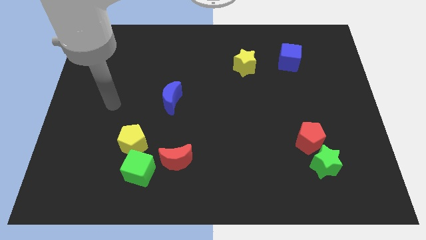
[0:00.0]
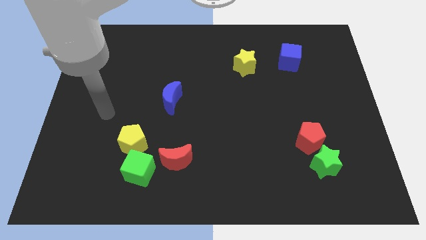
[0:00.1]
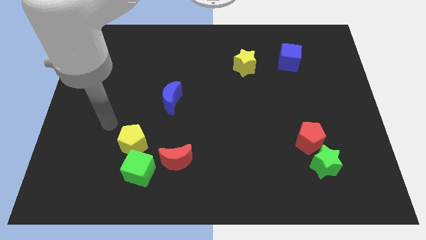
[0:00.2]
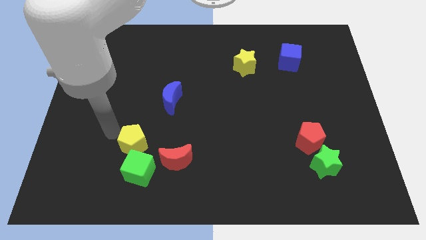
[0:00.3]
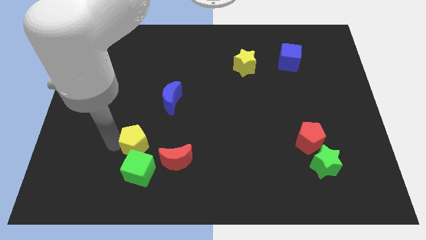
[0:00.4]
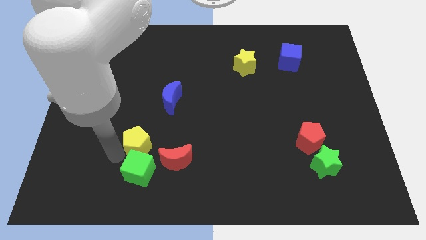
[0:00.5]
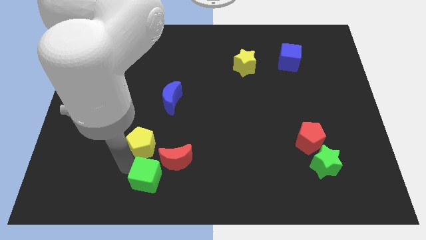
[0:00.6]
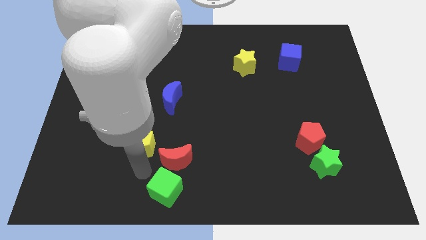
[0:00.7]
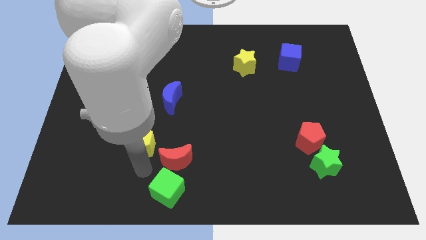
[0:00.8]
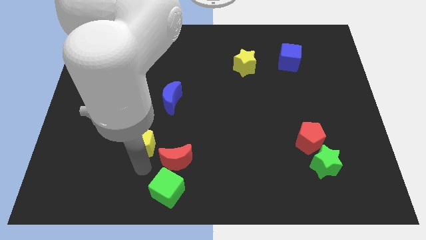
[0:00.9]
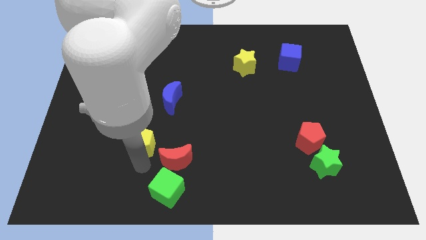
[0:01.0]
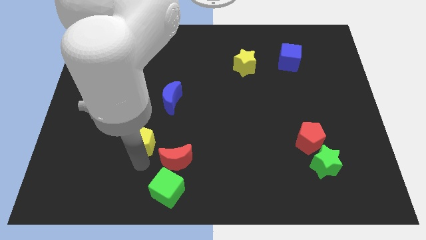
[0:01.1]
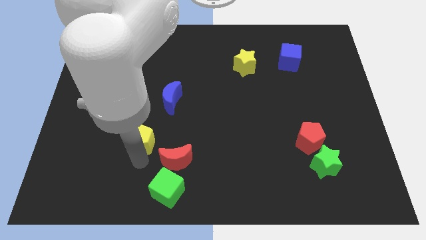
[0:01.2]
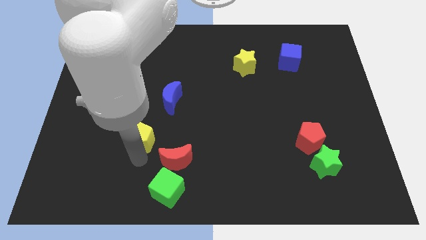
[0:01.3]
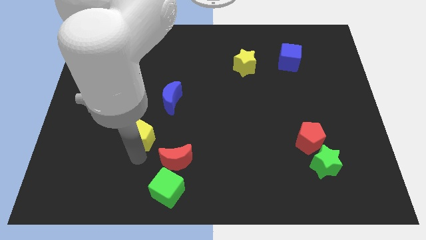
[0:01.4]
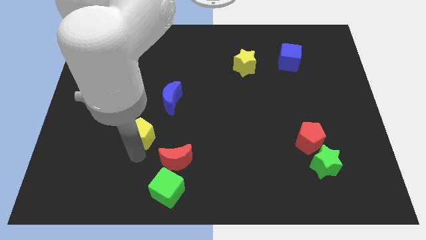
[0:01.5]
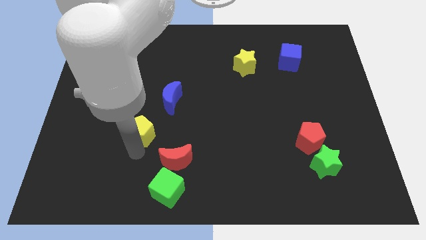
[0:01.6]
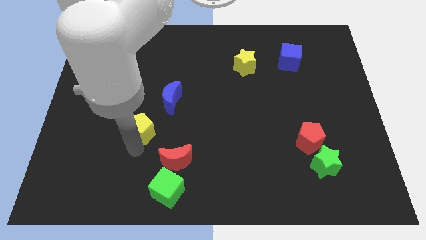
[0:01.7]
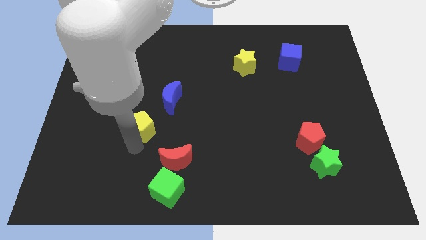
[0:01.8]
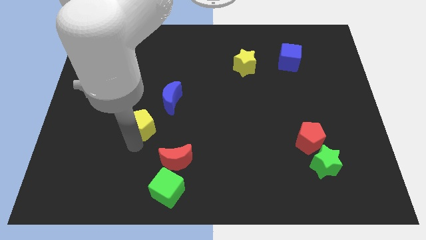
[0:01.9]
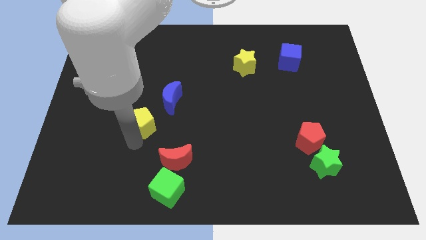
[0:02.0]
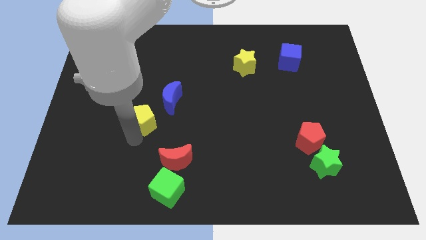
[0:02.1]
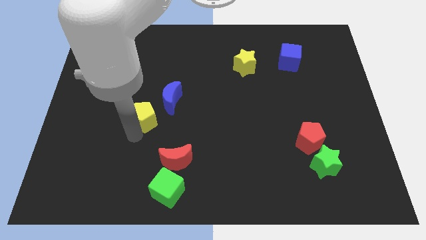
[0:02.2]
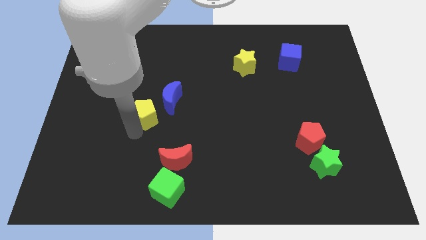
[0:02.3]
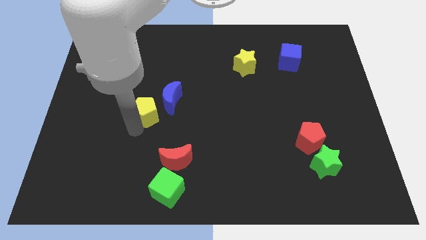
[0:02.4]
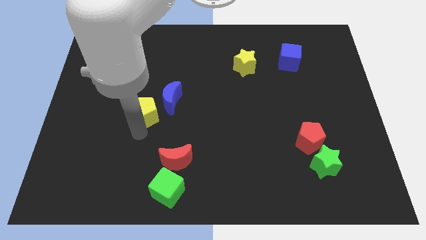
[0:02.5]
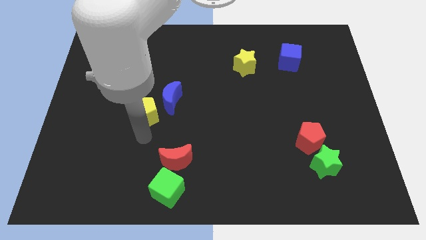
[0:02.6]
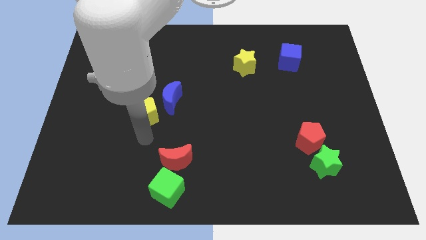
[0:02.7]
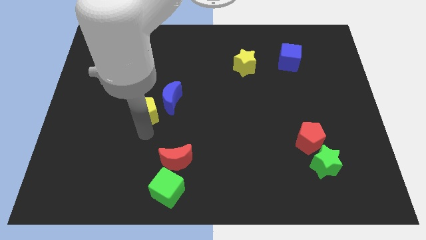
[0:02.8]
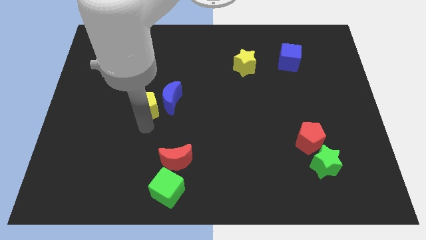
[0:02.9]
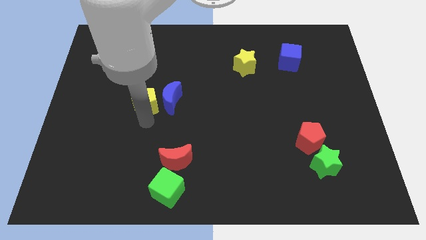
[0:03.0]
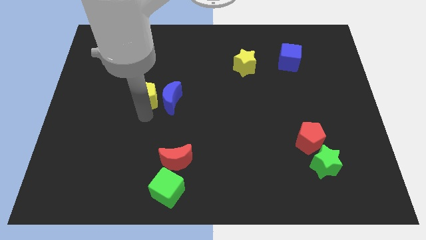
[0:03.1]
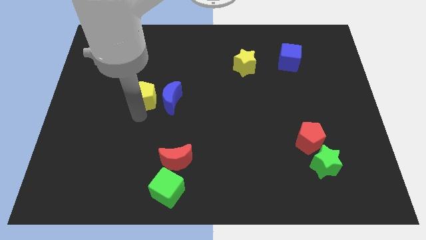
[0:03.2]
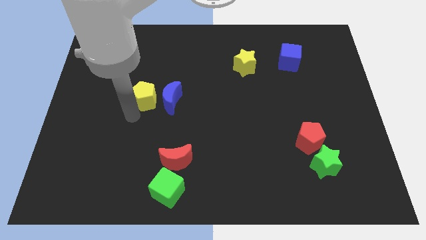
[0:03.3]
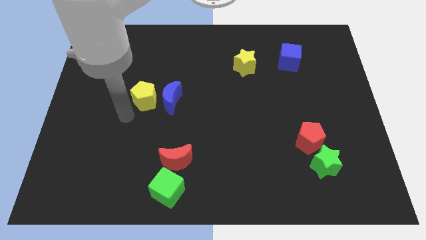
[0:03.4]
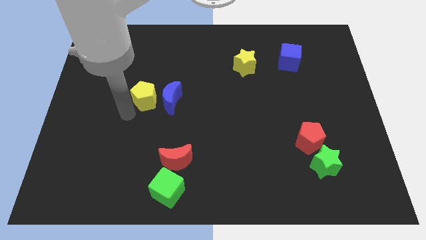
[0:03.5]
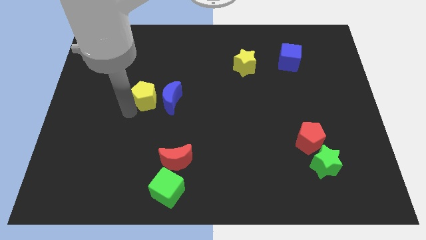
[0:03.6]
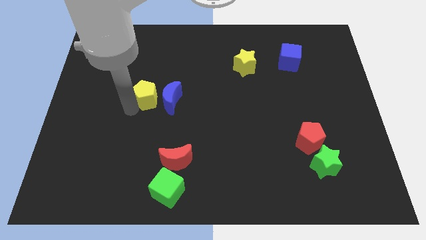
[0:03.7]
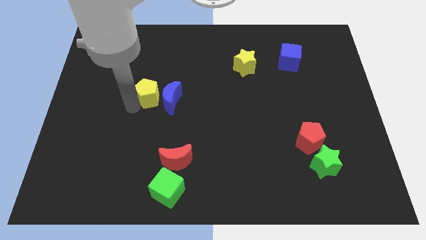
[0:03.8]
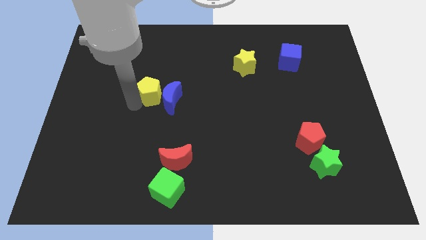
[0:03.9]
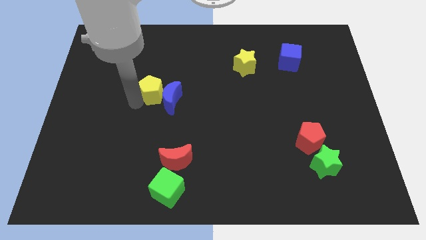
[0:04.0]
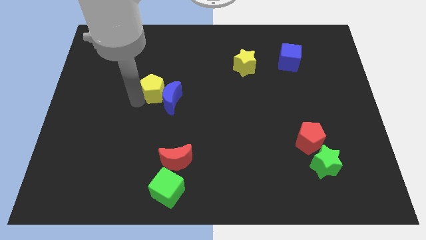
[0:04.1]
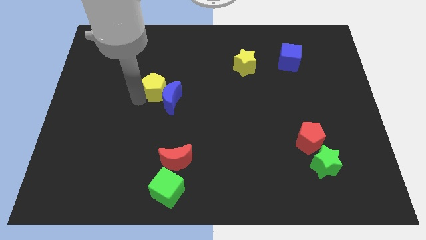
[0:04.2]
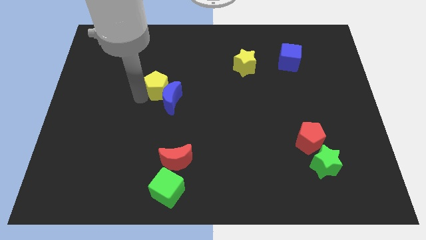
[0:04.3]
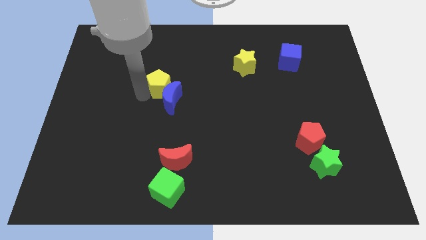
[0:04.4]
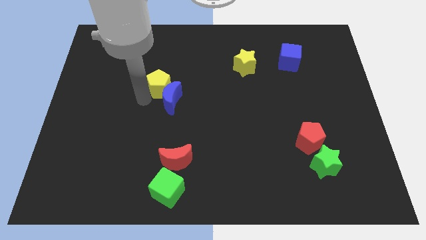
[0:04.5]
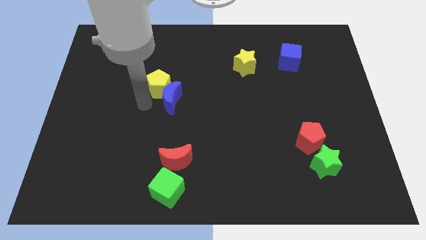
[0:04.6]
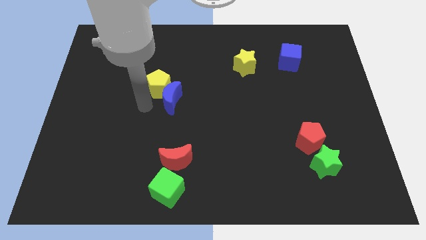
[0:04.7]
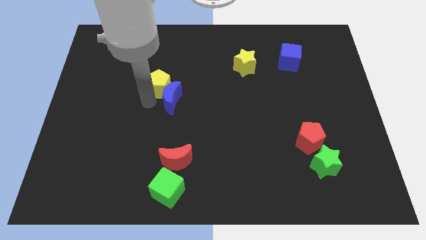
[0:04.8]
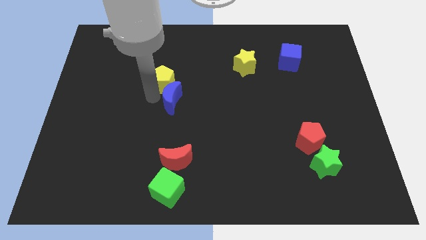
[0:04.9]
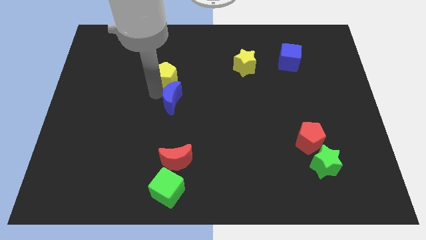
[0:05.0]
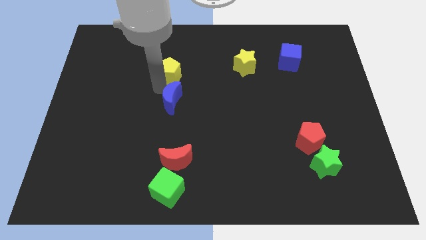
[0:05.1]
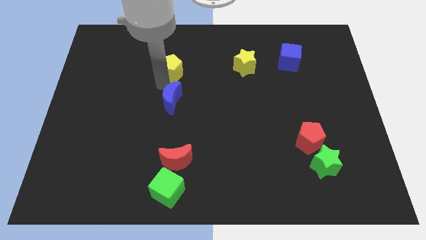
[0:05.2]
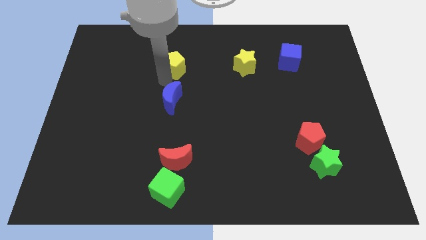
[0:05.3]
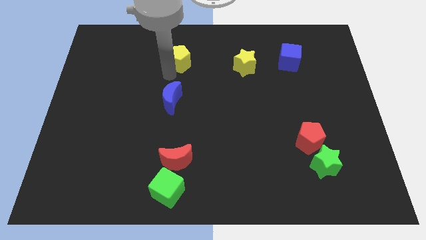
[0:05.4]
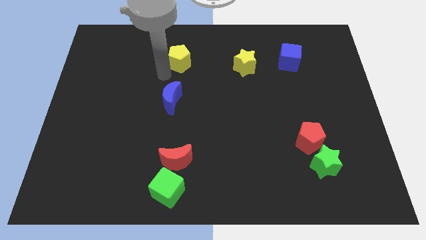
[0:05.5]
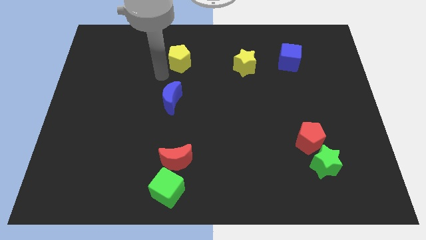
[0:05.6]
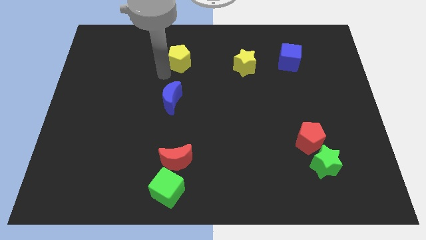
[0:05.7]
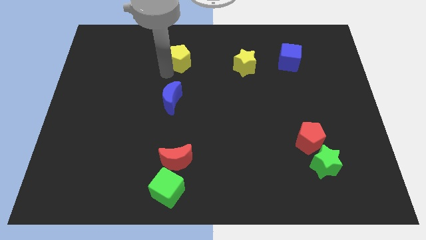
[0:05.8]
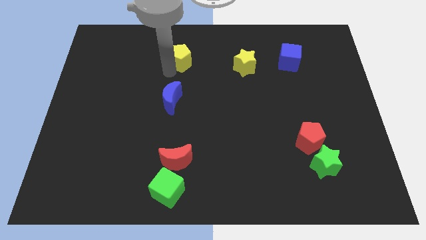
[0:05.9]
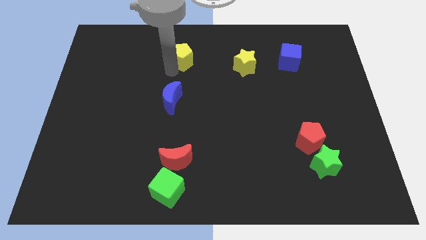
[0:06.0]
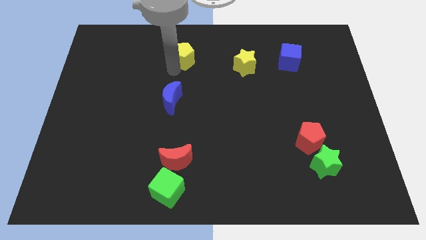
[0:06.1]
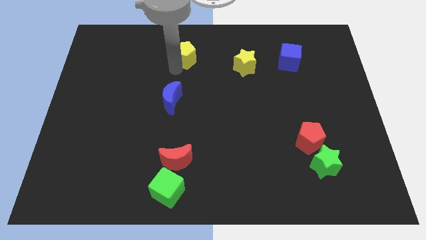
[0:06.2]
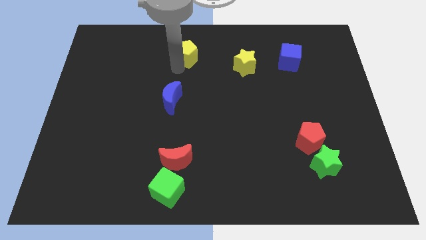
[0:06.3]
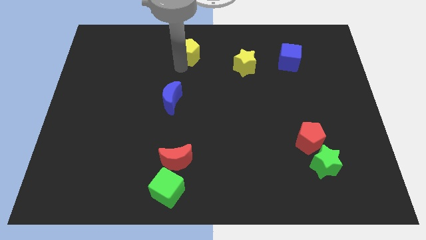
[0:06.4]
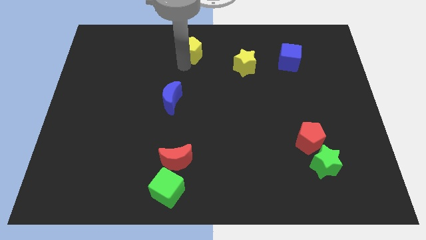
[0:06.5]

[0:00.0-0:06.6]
move the yellow pentagon to the top side
